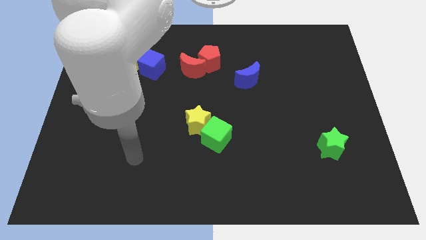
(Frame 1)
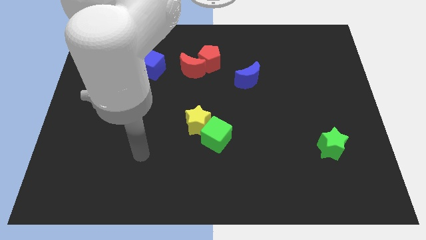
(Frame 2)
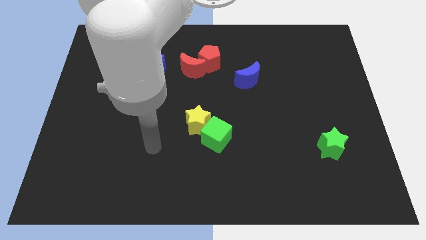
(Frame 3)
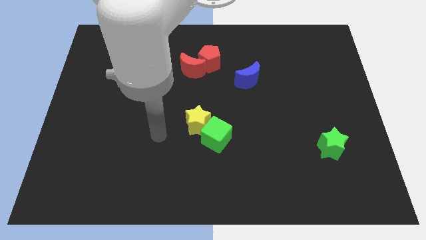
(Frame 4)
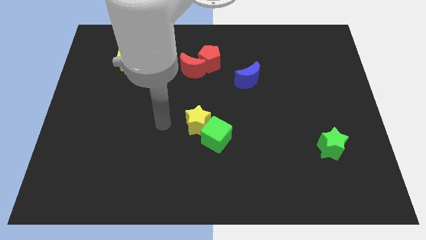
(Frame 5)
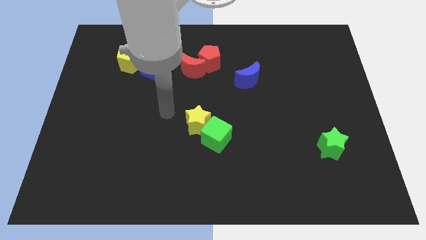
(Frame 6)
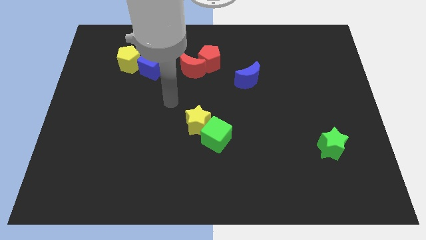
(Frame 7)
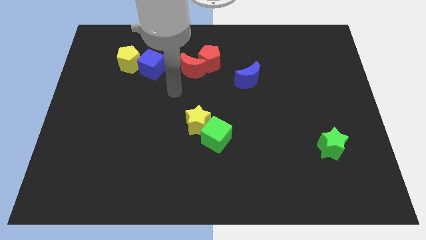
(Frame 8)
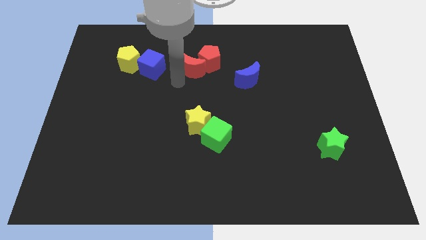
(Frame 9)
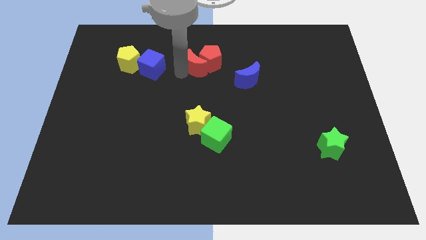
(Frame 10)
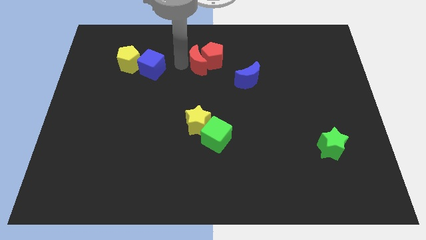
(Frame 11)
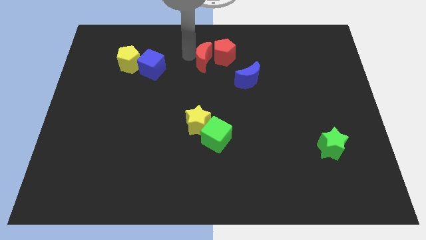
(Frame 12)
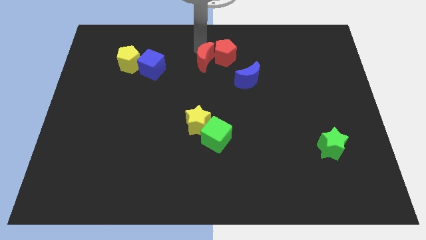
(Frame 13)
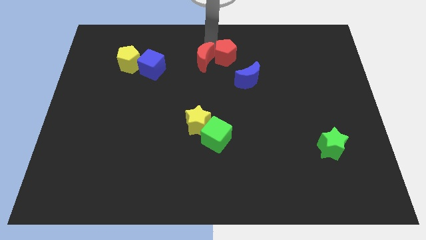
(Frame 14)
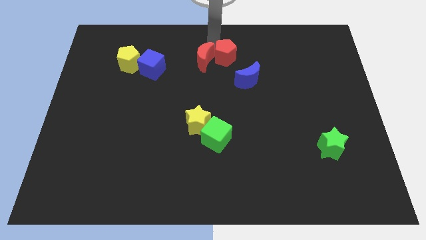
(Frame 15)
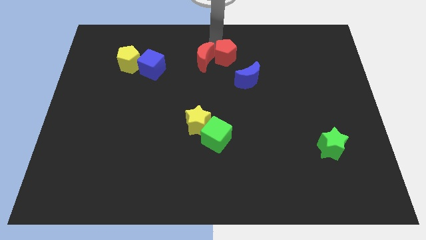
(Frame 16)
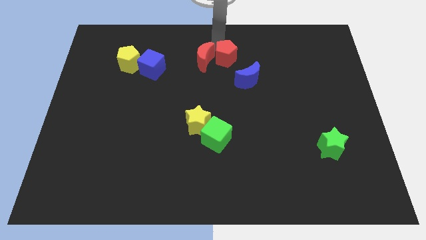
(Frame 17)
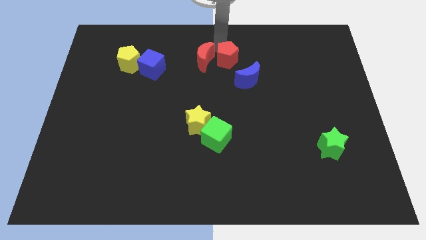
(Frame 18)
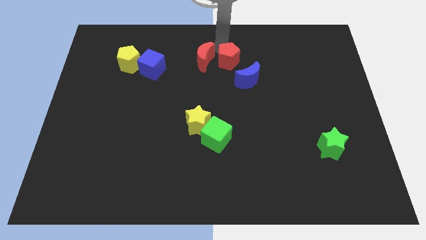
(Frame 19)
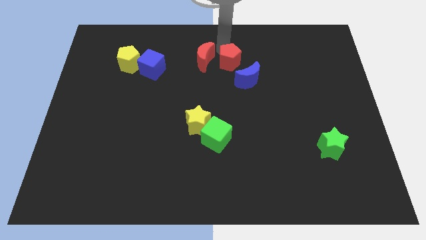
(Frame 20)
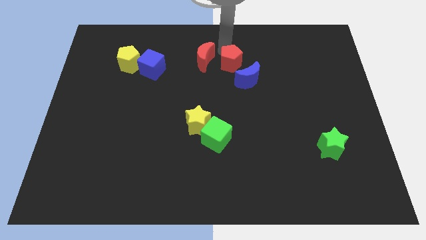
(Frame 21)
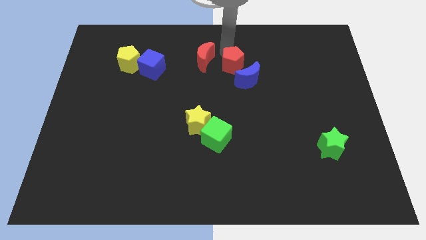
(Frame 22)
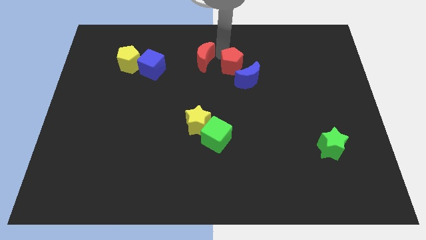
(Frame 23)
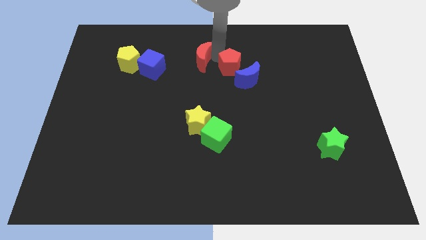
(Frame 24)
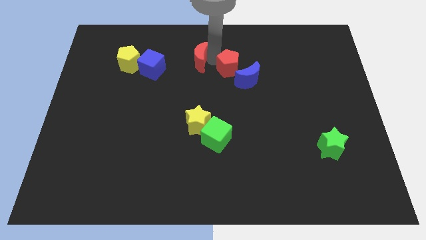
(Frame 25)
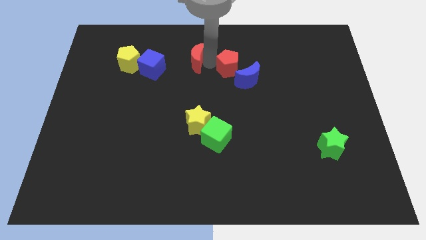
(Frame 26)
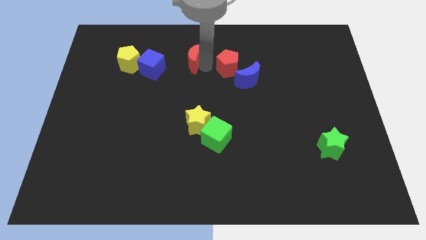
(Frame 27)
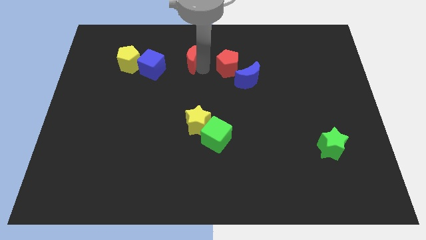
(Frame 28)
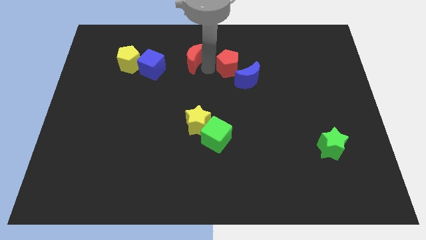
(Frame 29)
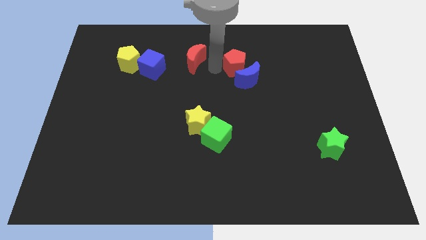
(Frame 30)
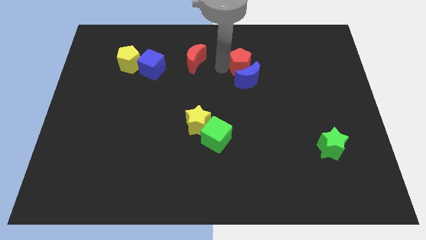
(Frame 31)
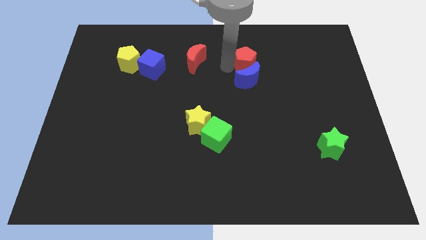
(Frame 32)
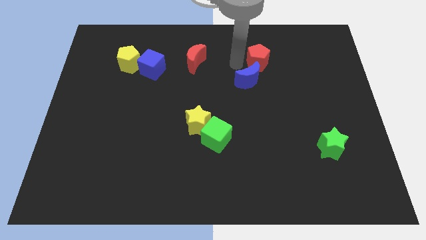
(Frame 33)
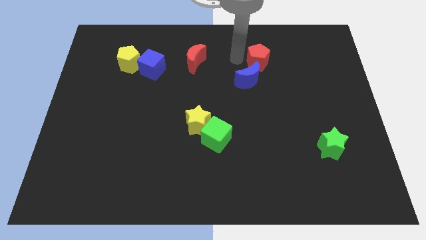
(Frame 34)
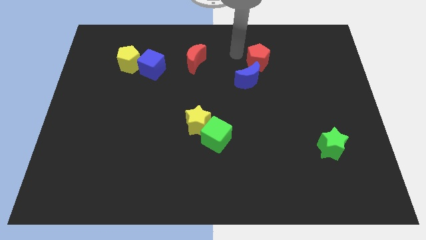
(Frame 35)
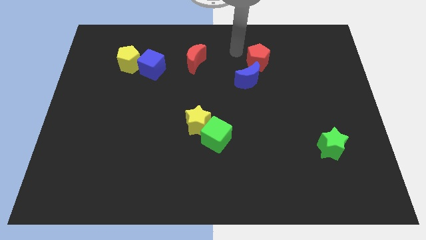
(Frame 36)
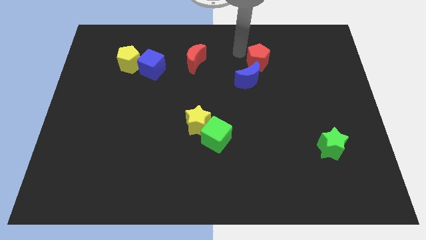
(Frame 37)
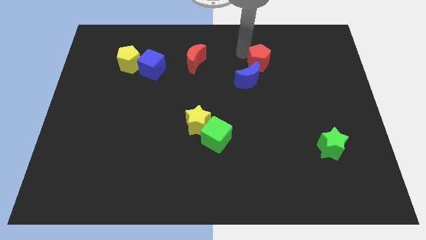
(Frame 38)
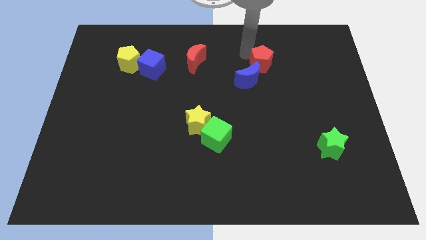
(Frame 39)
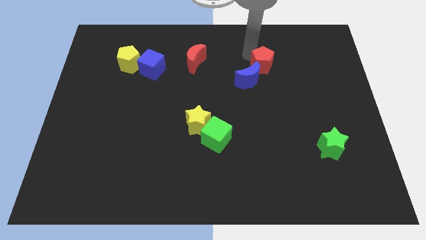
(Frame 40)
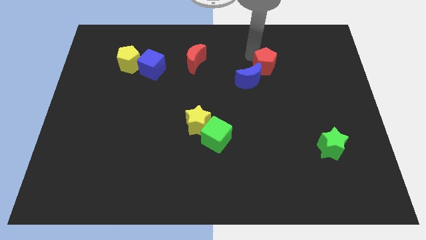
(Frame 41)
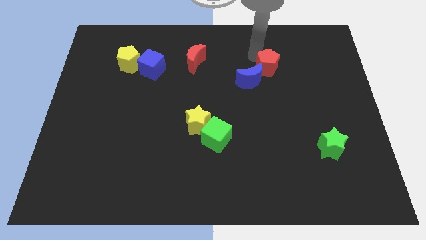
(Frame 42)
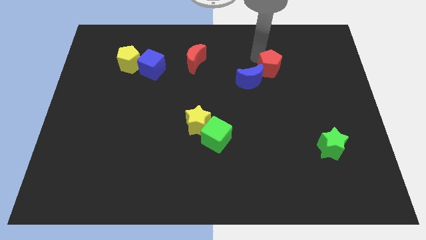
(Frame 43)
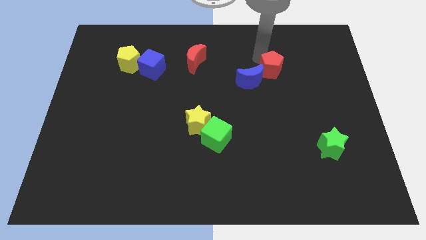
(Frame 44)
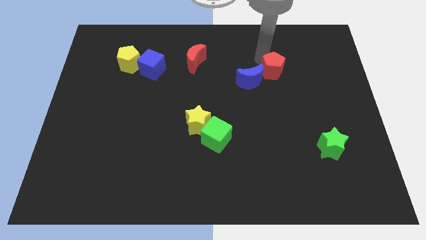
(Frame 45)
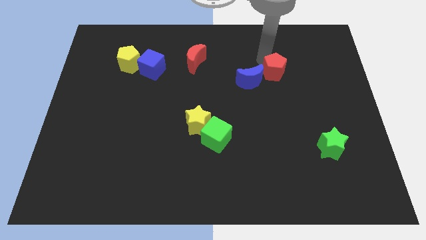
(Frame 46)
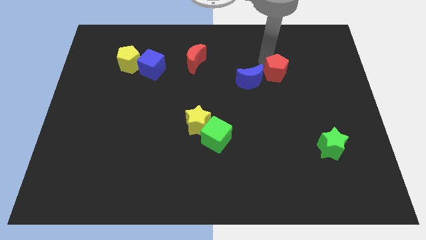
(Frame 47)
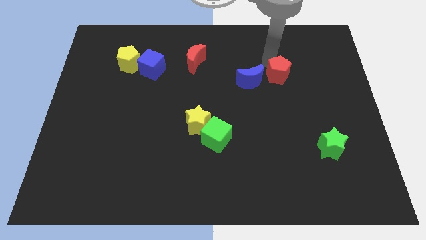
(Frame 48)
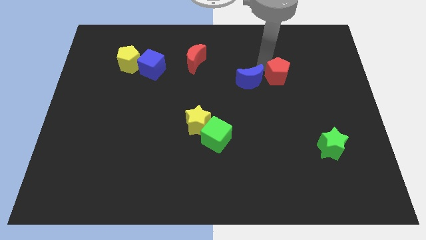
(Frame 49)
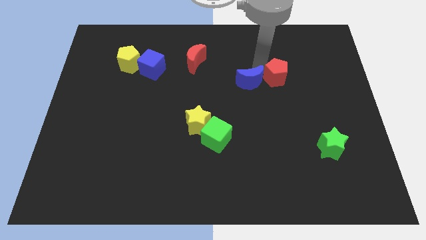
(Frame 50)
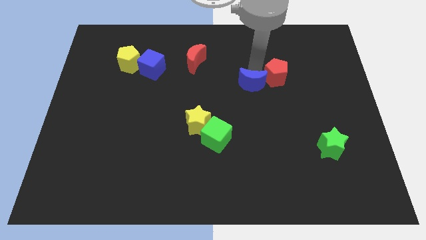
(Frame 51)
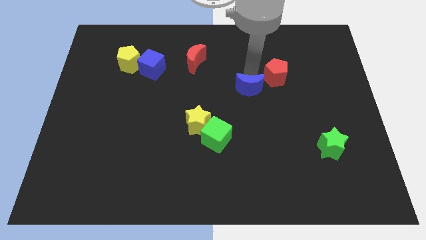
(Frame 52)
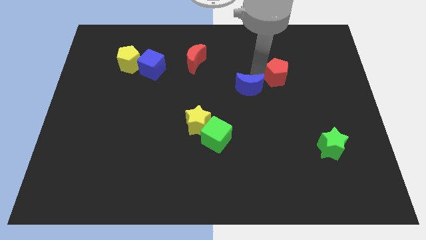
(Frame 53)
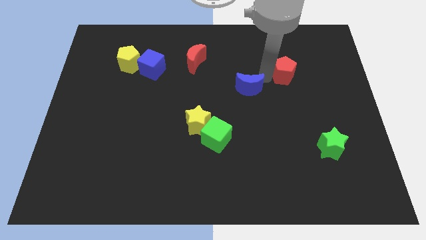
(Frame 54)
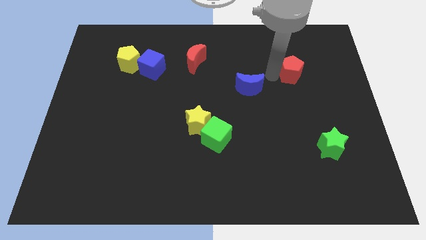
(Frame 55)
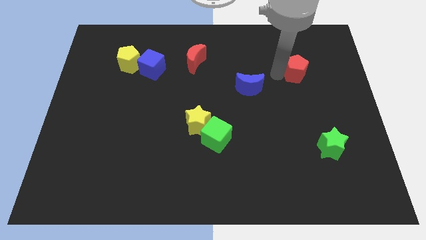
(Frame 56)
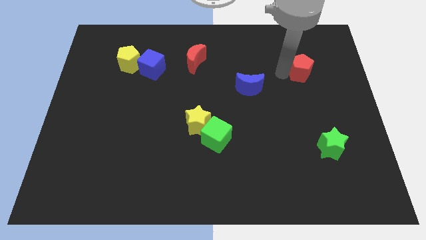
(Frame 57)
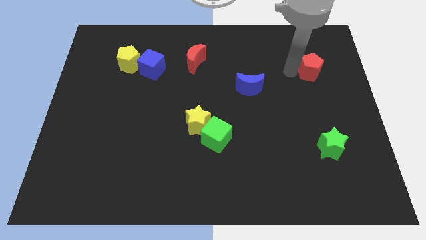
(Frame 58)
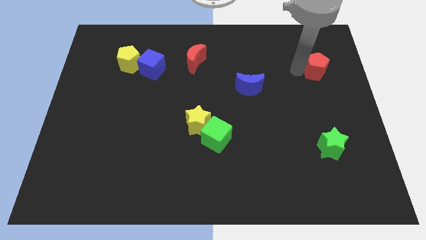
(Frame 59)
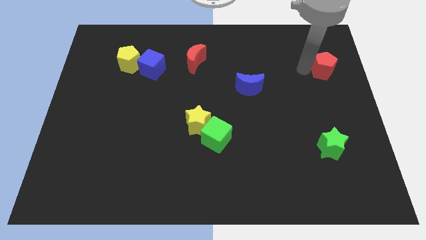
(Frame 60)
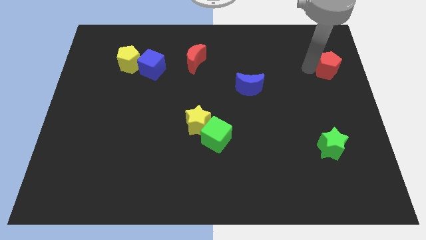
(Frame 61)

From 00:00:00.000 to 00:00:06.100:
put the red pentagon to the center right
